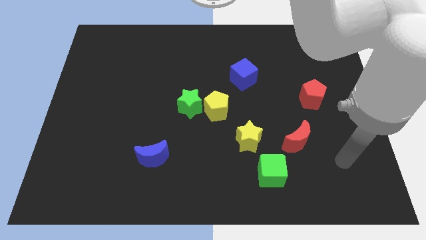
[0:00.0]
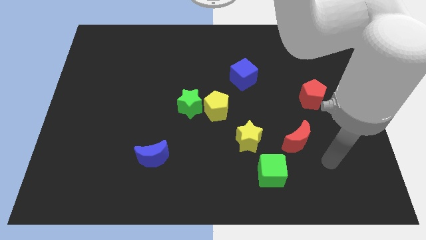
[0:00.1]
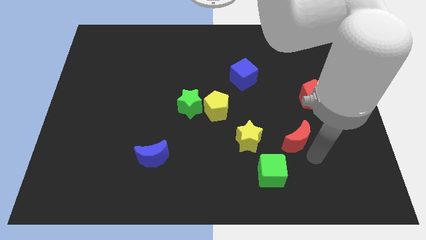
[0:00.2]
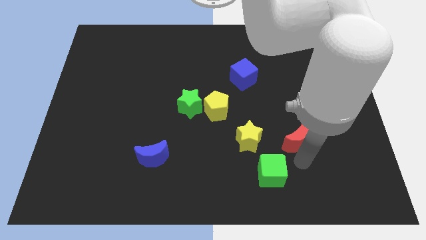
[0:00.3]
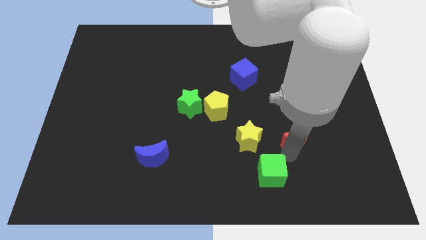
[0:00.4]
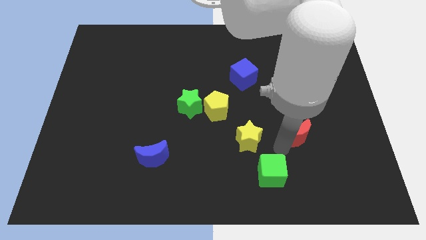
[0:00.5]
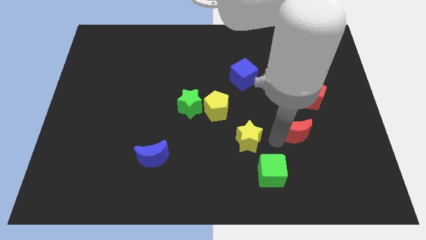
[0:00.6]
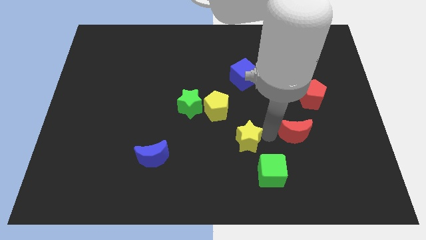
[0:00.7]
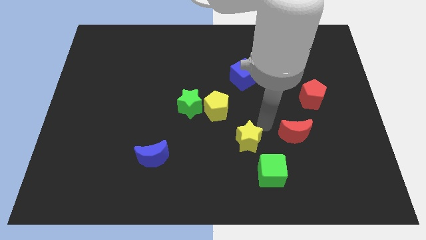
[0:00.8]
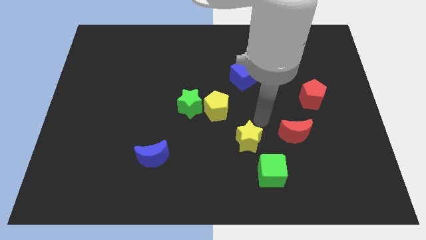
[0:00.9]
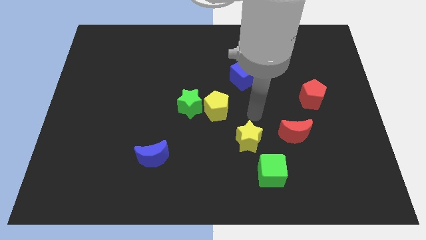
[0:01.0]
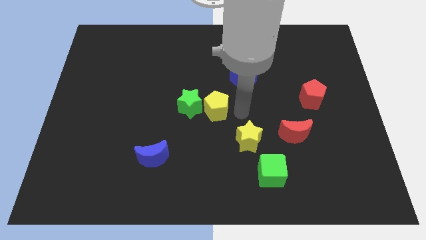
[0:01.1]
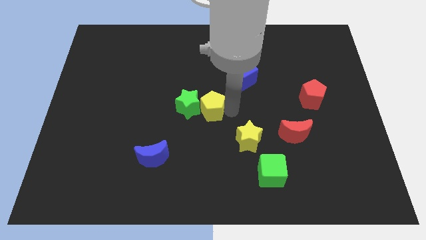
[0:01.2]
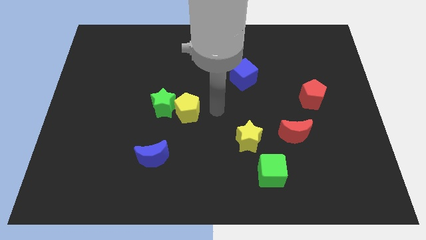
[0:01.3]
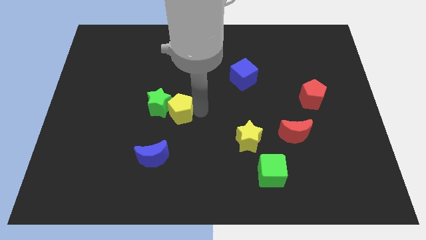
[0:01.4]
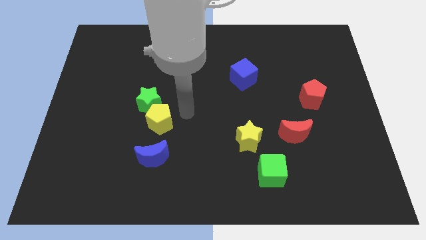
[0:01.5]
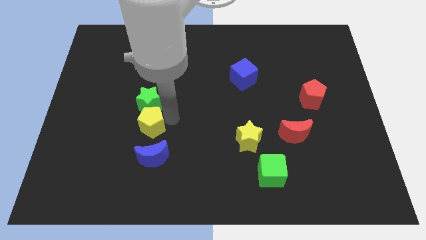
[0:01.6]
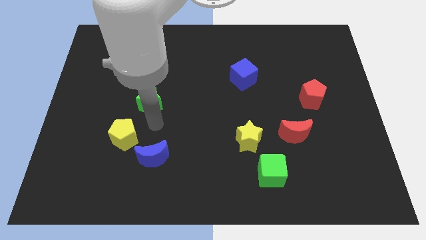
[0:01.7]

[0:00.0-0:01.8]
separate the green star from the yellow pentagon

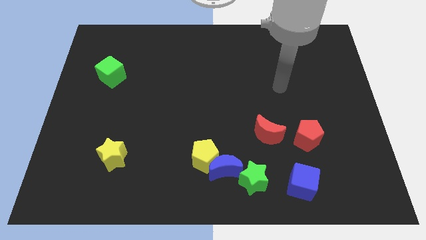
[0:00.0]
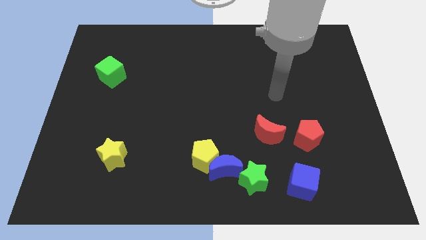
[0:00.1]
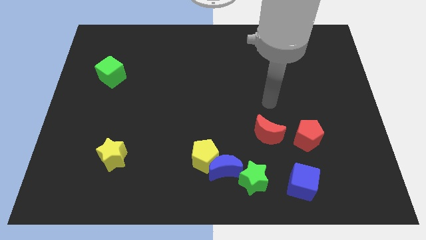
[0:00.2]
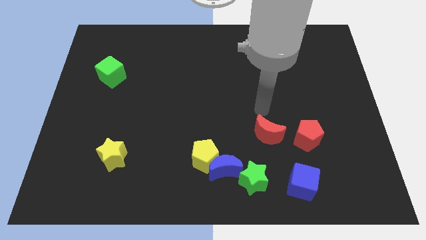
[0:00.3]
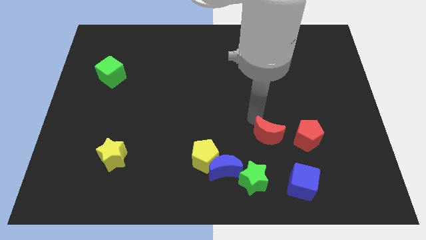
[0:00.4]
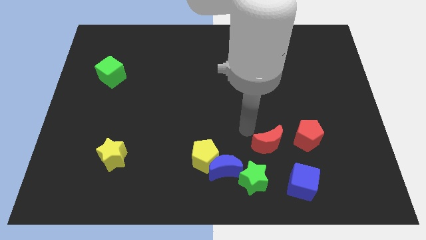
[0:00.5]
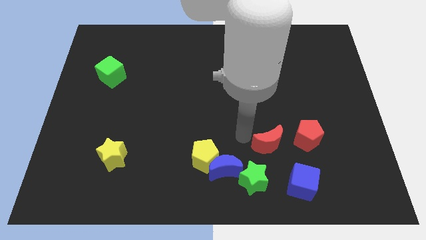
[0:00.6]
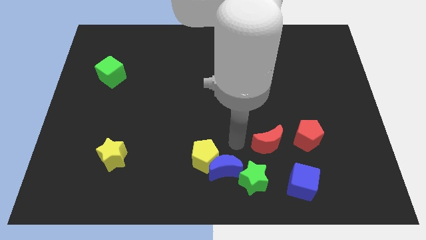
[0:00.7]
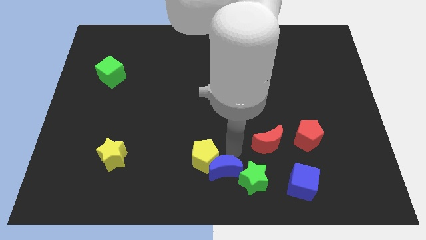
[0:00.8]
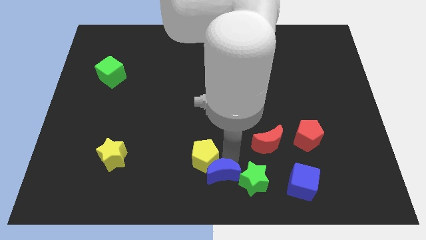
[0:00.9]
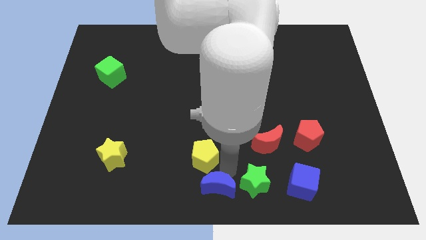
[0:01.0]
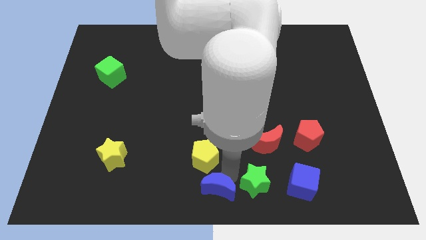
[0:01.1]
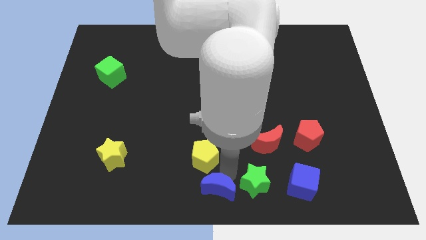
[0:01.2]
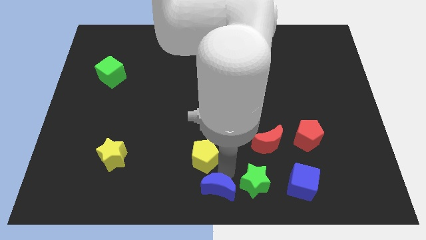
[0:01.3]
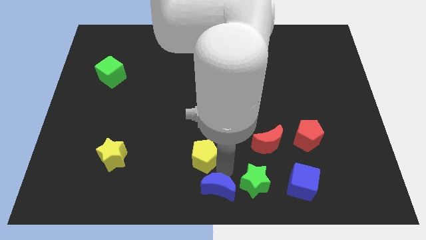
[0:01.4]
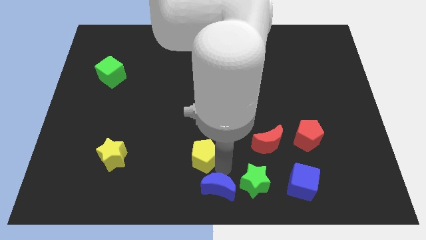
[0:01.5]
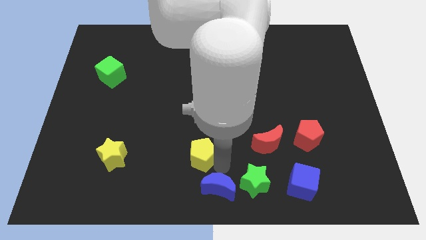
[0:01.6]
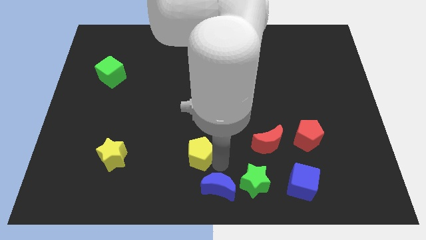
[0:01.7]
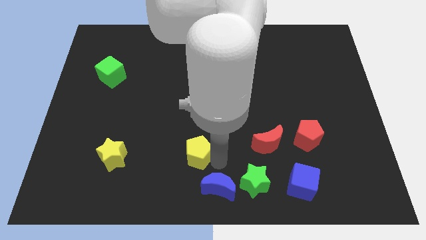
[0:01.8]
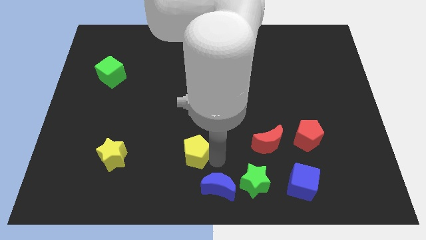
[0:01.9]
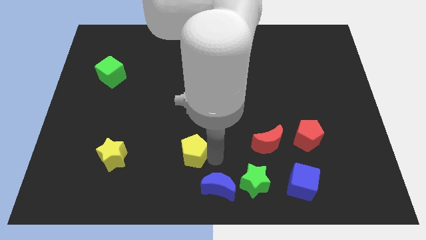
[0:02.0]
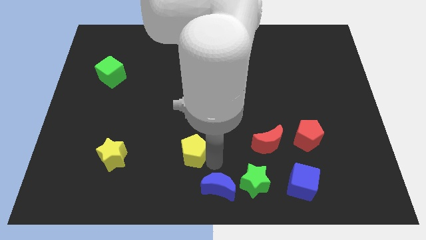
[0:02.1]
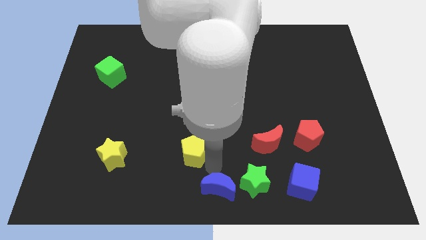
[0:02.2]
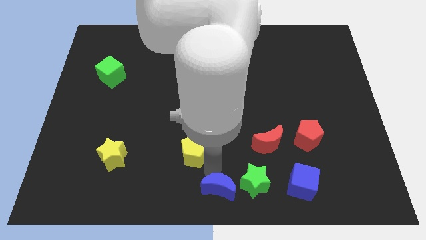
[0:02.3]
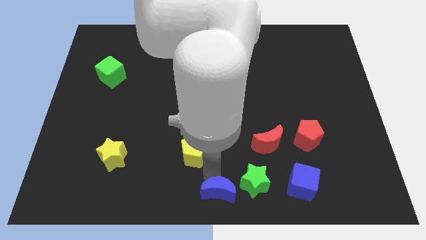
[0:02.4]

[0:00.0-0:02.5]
separate the yellow pentagon from the blue moon

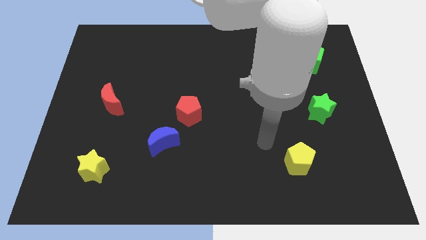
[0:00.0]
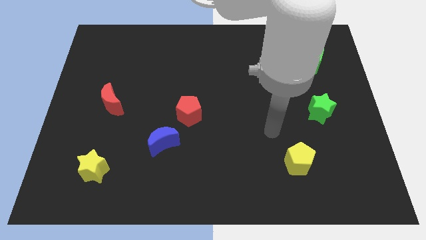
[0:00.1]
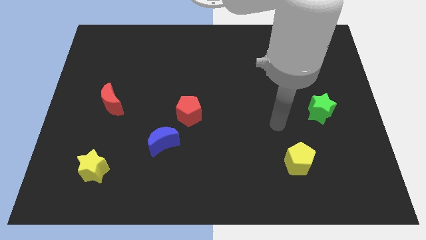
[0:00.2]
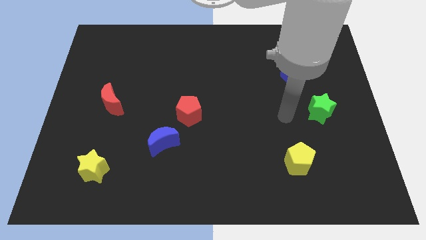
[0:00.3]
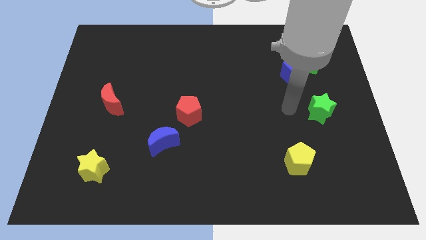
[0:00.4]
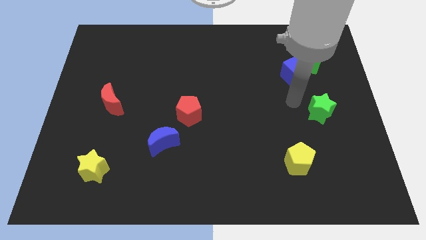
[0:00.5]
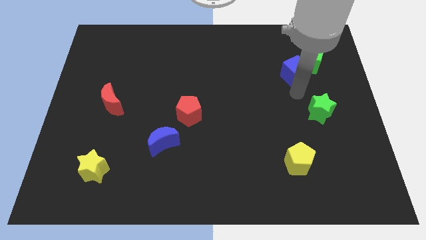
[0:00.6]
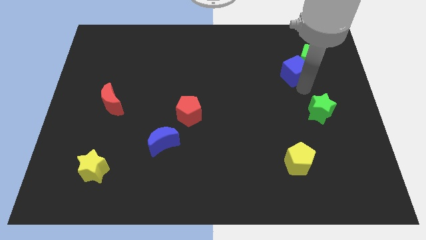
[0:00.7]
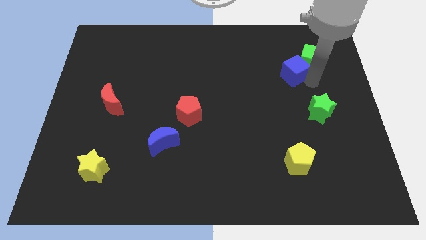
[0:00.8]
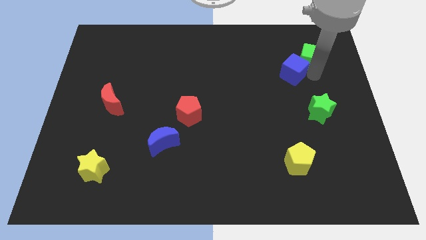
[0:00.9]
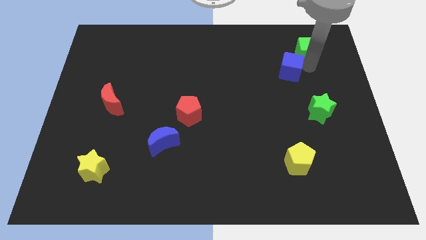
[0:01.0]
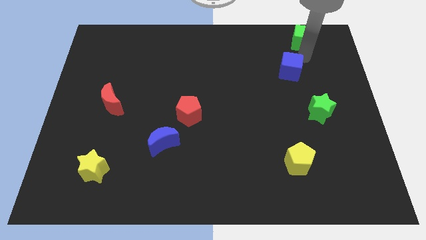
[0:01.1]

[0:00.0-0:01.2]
pull the blue cube apart from the green cube

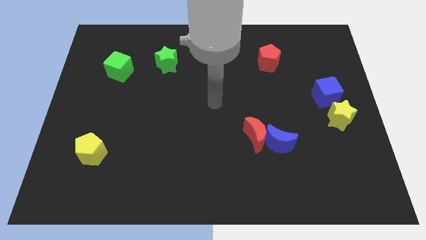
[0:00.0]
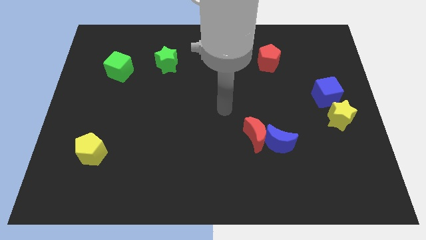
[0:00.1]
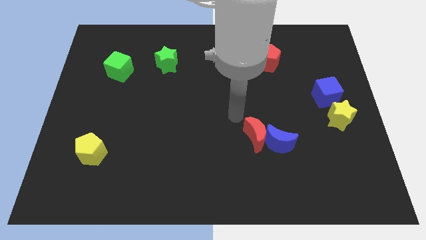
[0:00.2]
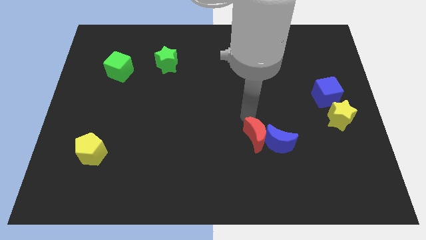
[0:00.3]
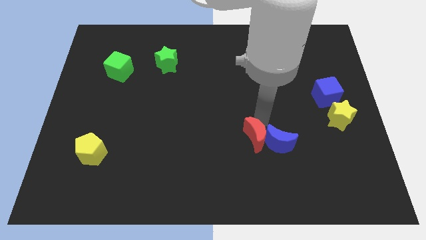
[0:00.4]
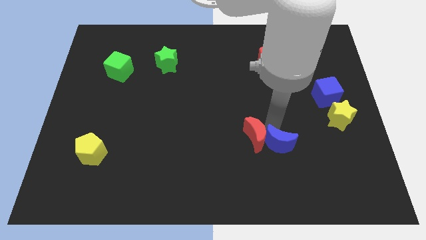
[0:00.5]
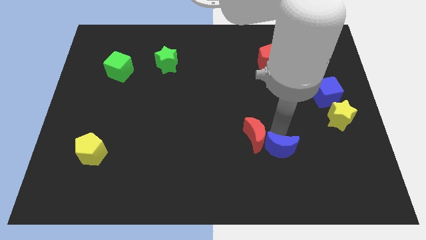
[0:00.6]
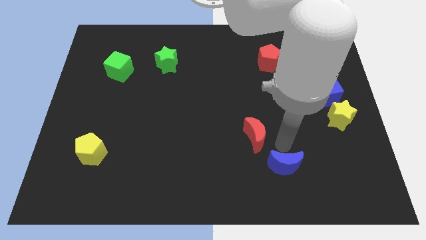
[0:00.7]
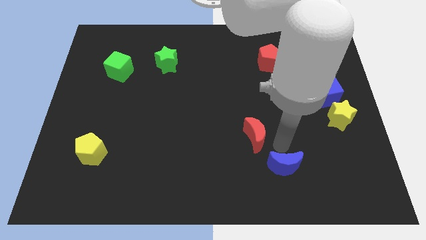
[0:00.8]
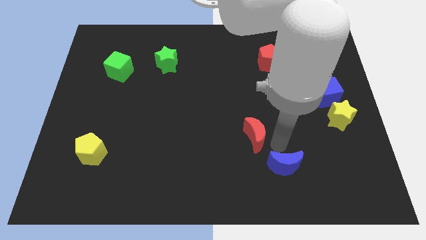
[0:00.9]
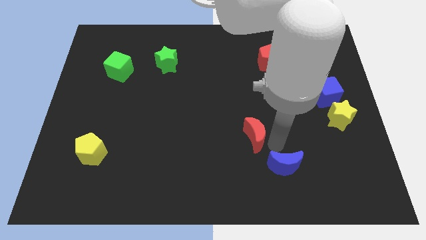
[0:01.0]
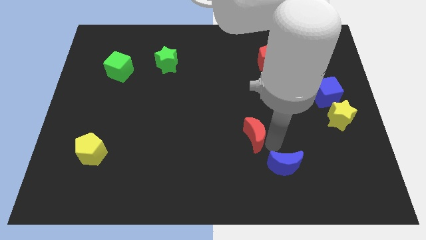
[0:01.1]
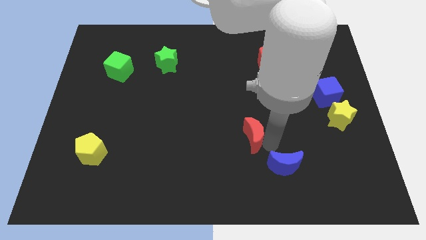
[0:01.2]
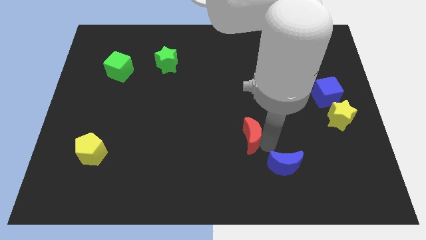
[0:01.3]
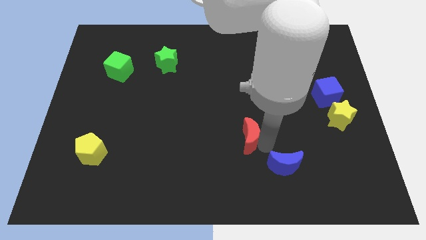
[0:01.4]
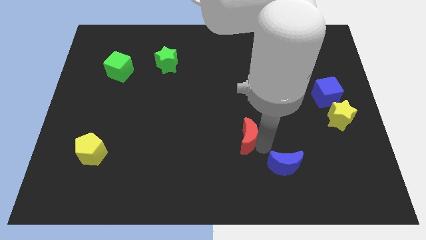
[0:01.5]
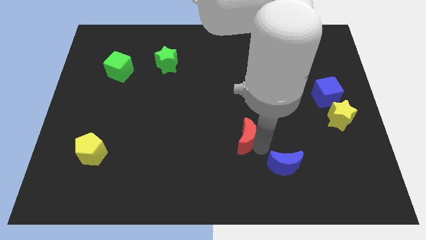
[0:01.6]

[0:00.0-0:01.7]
separate the red moon from the blue moon

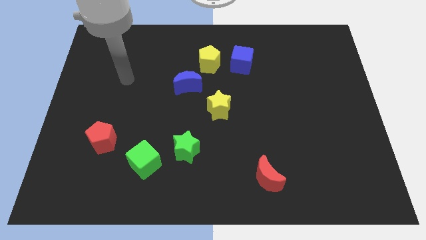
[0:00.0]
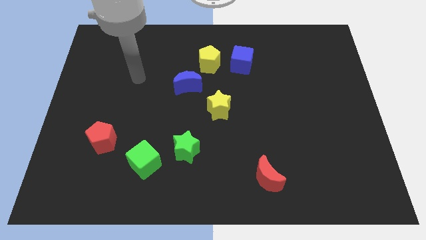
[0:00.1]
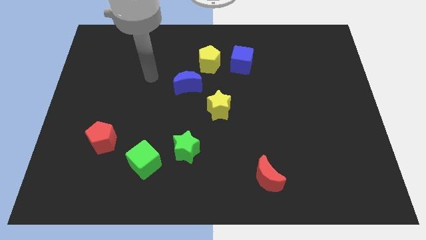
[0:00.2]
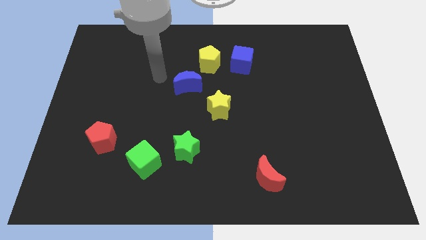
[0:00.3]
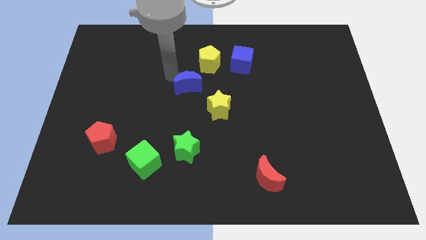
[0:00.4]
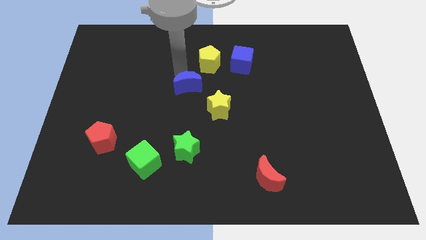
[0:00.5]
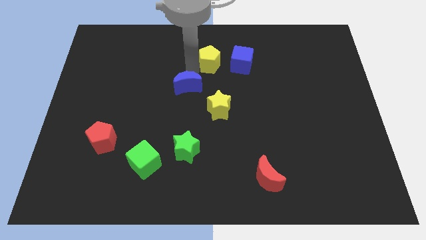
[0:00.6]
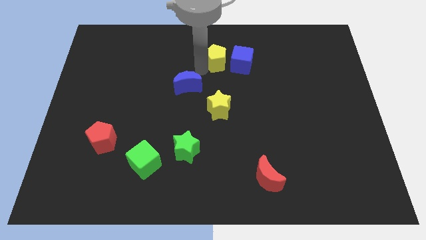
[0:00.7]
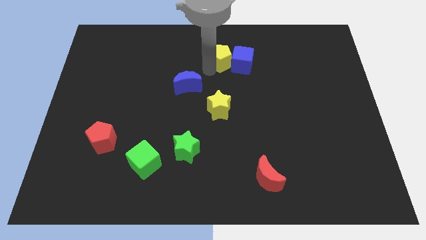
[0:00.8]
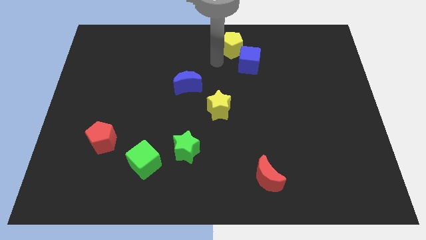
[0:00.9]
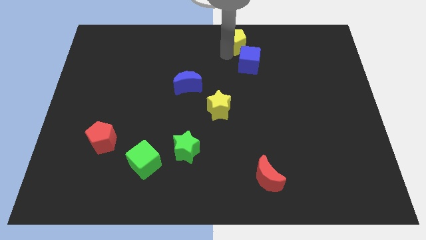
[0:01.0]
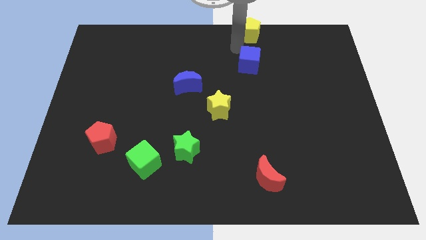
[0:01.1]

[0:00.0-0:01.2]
pull the blue cube apart from the yellow pentagon

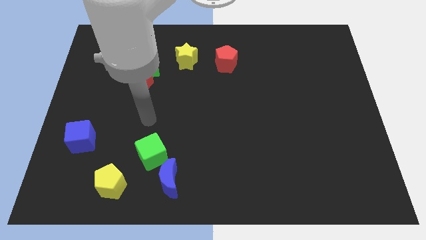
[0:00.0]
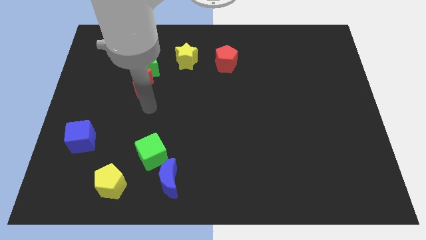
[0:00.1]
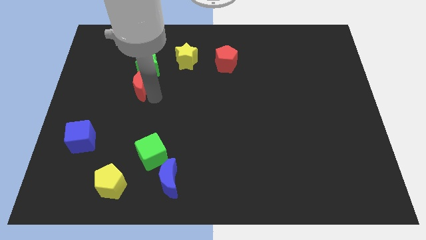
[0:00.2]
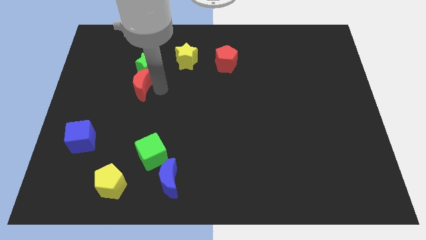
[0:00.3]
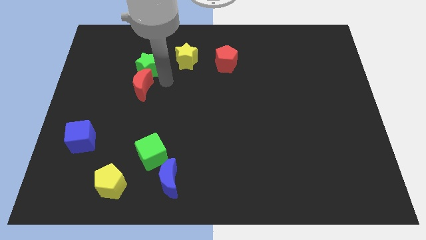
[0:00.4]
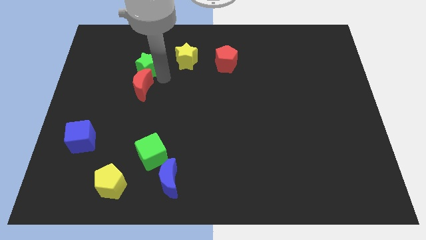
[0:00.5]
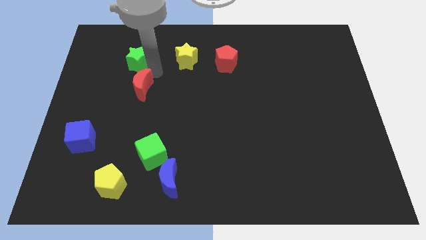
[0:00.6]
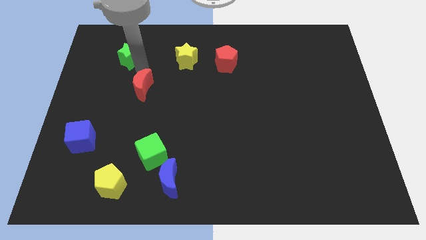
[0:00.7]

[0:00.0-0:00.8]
pull the red moon apart from the green star
